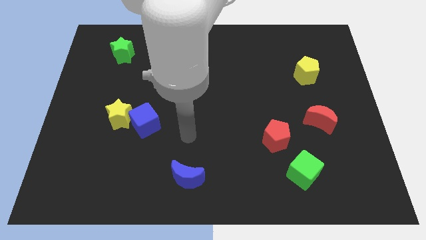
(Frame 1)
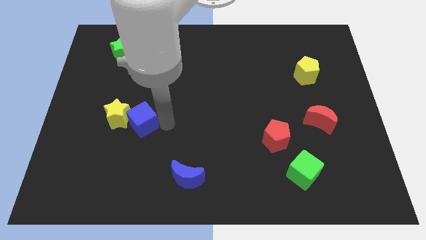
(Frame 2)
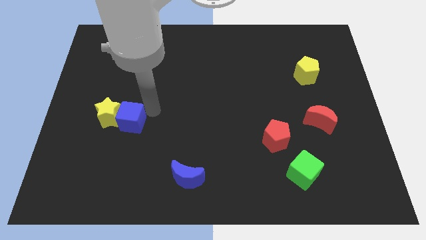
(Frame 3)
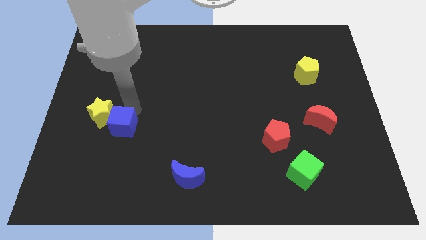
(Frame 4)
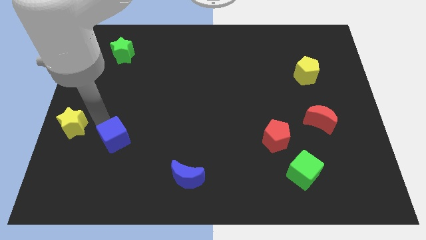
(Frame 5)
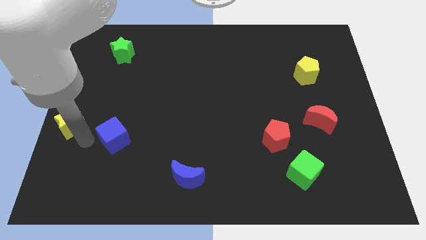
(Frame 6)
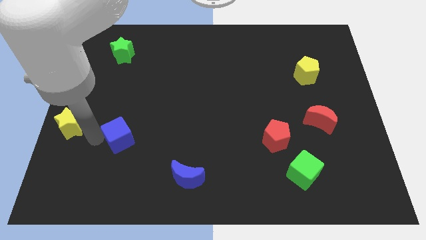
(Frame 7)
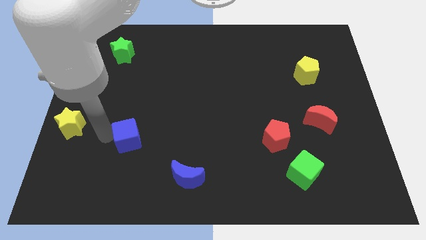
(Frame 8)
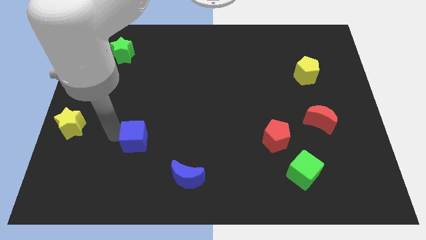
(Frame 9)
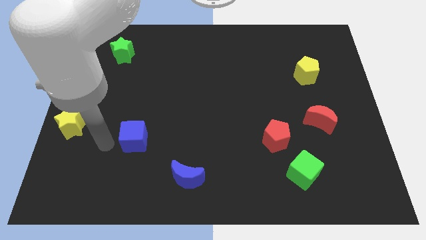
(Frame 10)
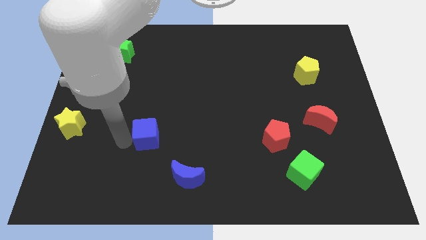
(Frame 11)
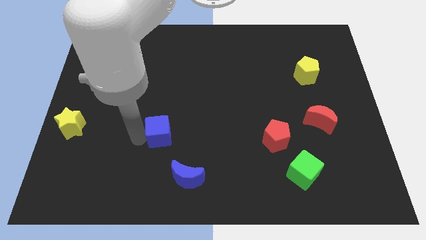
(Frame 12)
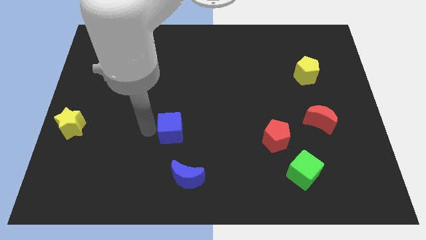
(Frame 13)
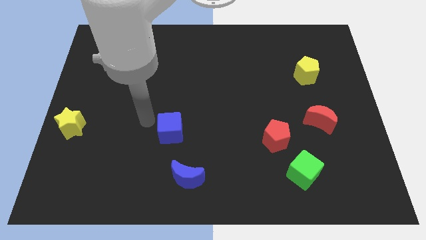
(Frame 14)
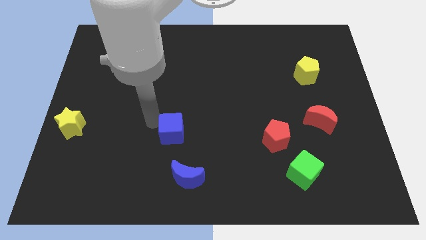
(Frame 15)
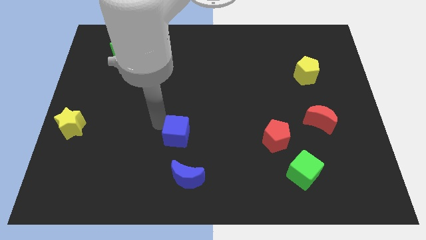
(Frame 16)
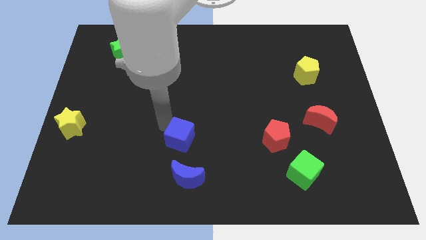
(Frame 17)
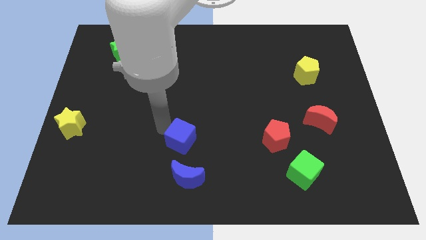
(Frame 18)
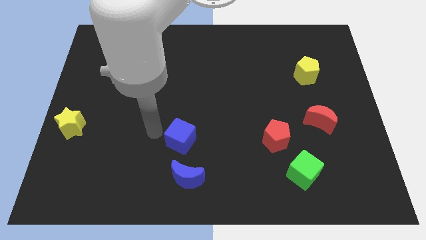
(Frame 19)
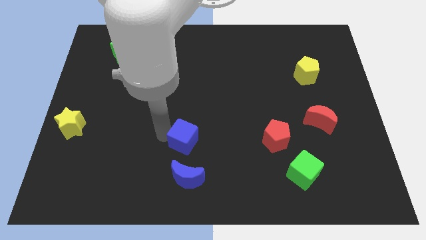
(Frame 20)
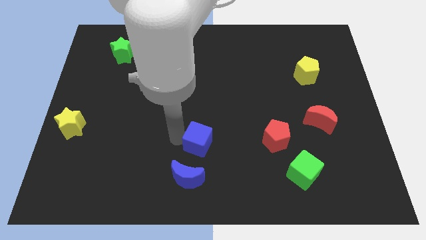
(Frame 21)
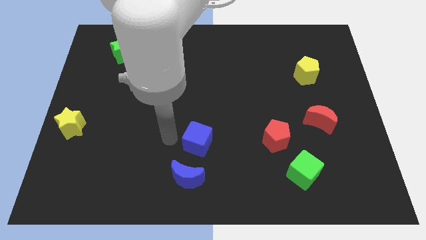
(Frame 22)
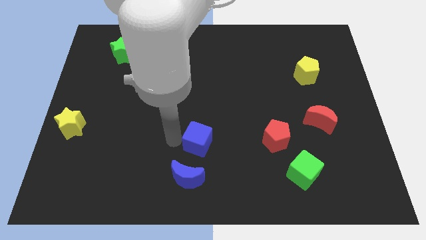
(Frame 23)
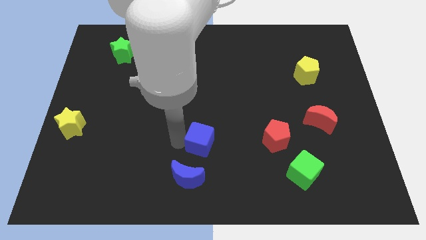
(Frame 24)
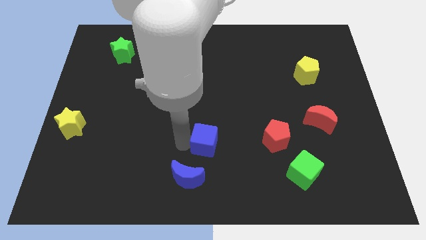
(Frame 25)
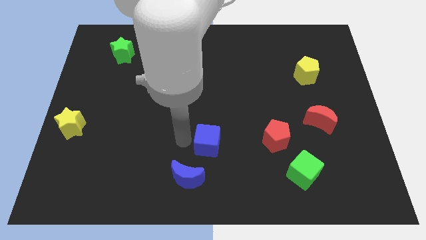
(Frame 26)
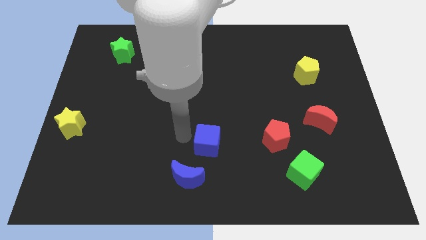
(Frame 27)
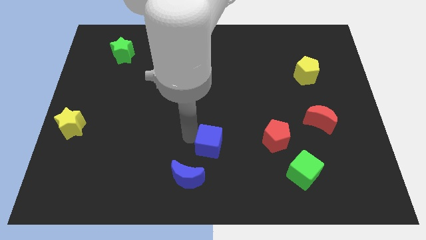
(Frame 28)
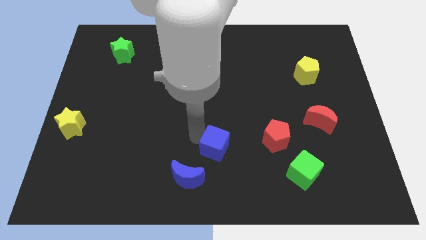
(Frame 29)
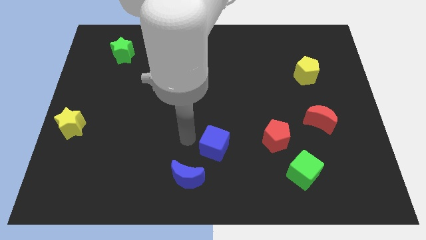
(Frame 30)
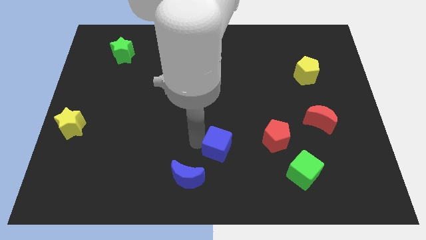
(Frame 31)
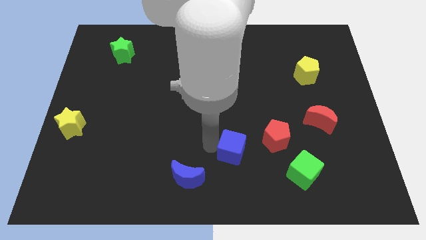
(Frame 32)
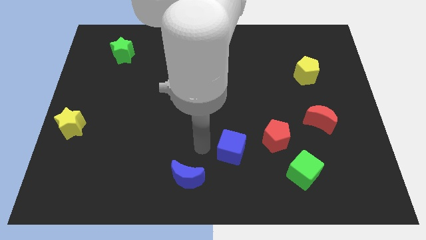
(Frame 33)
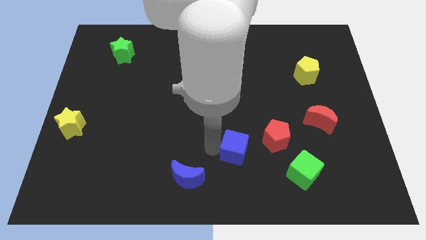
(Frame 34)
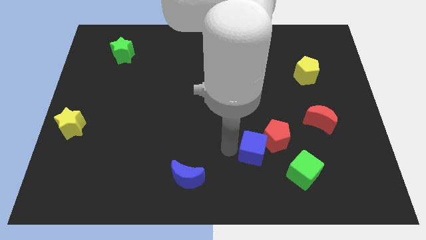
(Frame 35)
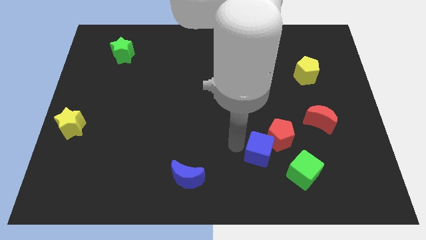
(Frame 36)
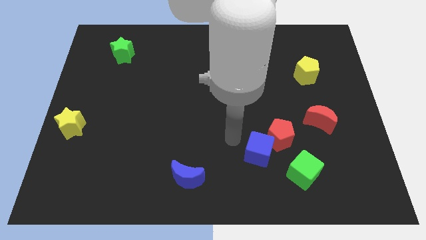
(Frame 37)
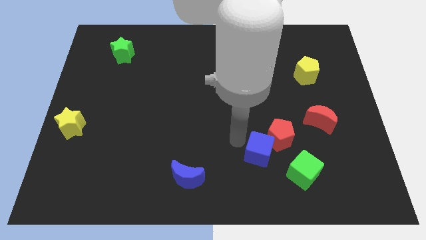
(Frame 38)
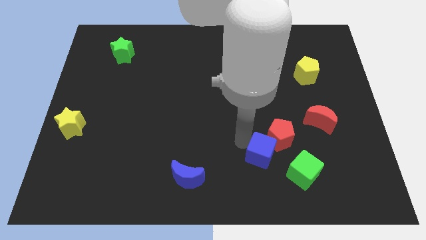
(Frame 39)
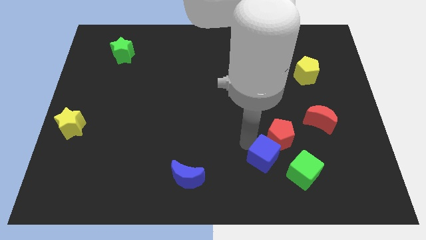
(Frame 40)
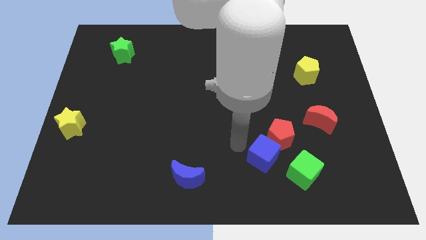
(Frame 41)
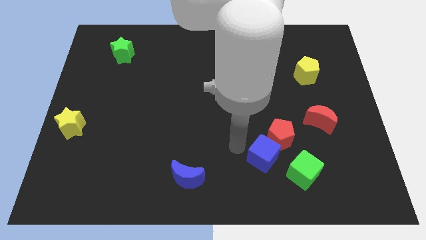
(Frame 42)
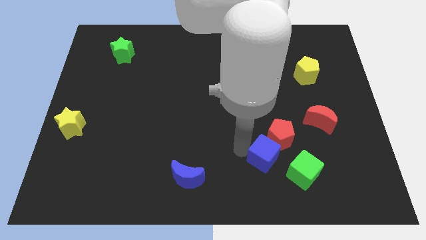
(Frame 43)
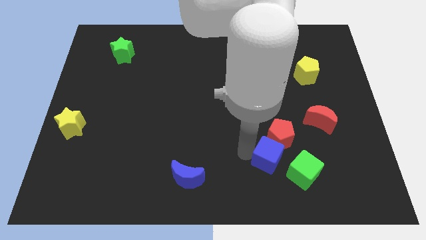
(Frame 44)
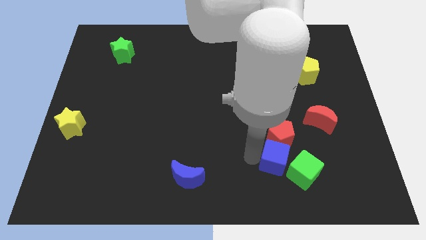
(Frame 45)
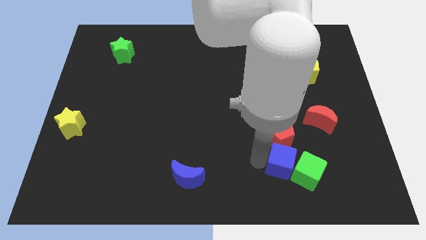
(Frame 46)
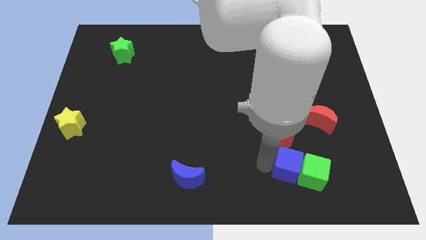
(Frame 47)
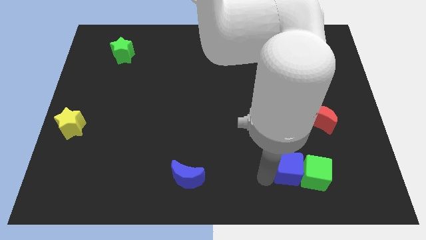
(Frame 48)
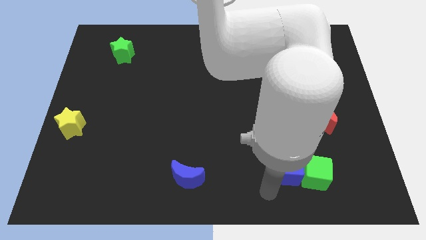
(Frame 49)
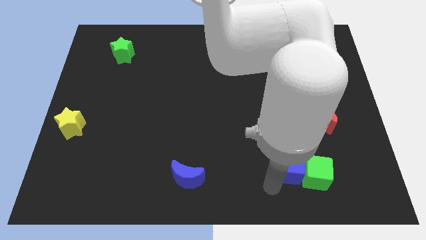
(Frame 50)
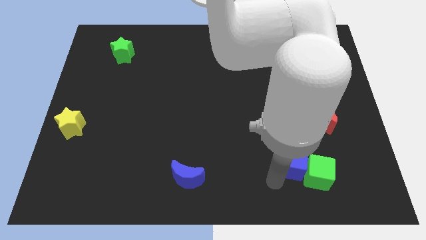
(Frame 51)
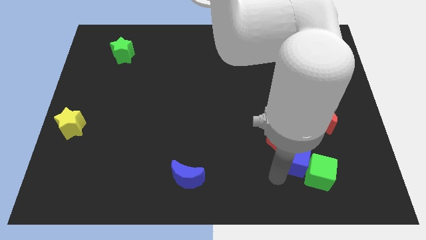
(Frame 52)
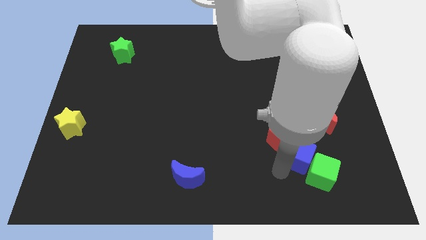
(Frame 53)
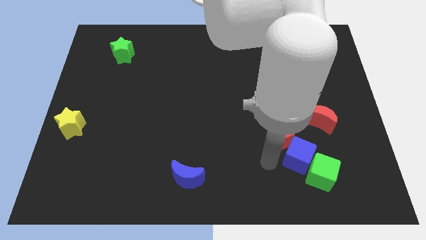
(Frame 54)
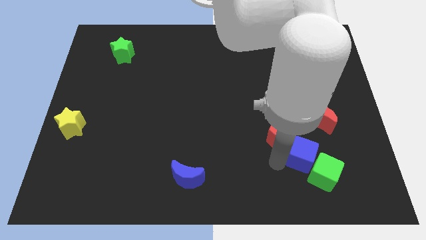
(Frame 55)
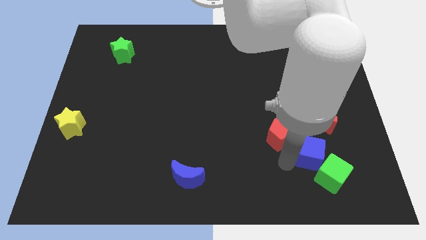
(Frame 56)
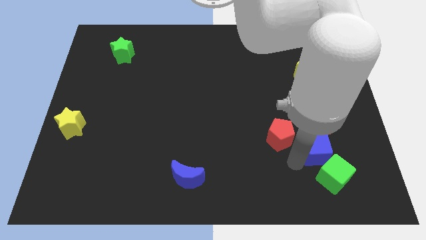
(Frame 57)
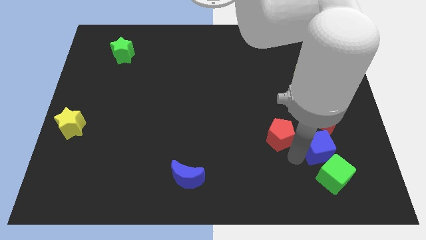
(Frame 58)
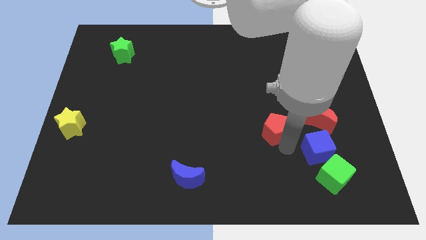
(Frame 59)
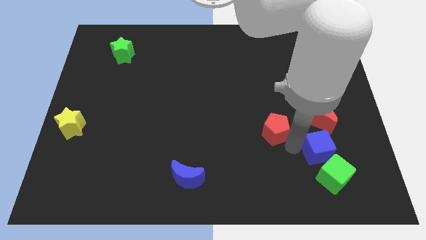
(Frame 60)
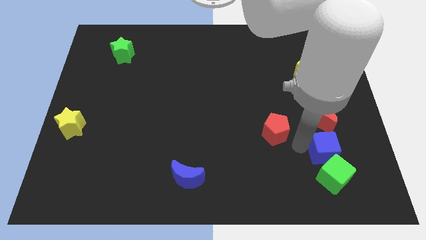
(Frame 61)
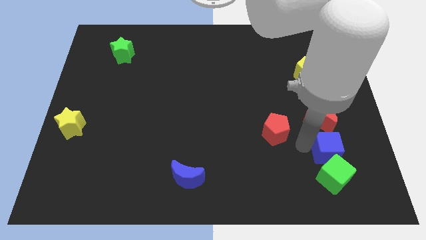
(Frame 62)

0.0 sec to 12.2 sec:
slide the blue cube to the top right of the green cube
